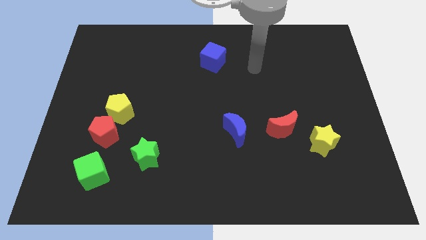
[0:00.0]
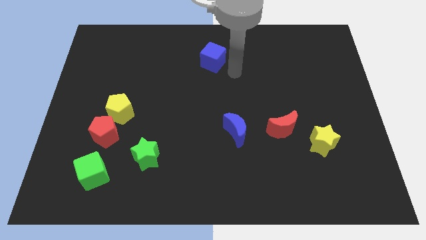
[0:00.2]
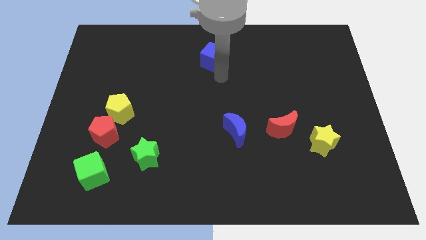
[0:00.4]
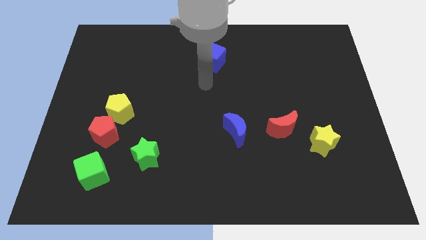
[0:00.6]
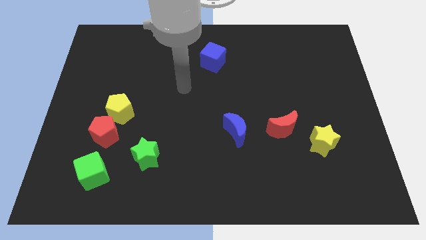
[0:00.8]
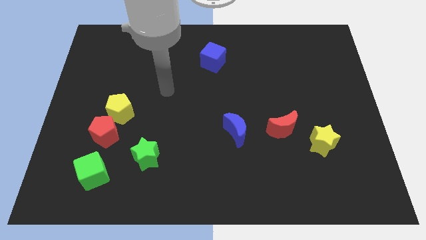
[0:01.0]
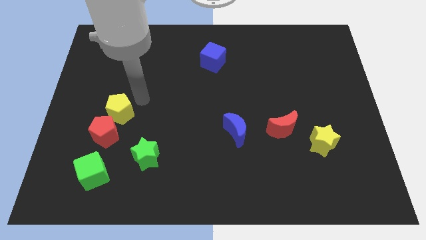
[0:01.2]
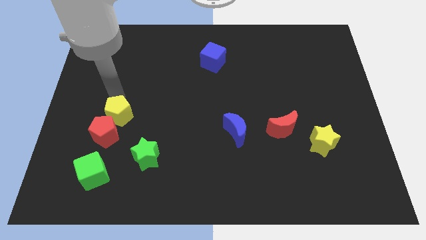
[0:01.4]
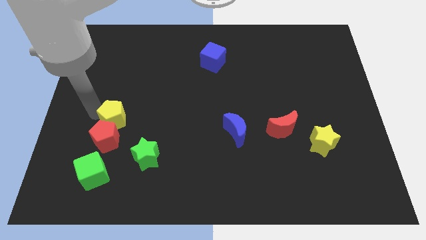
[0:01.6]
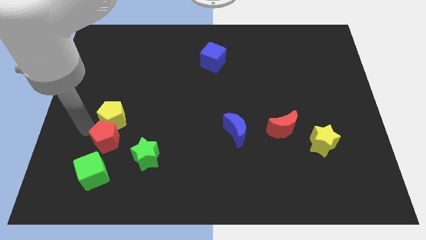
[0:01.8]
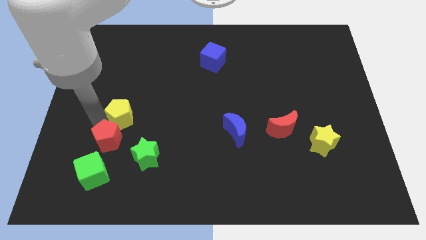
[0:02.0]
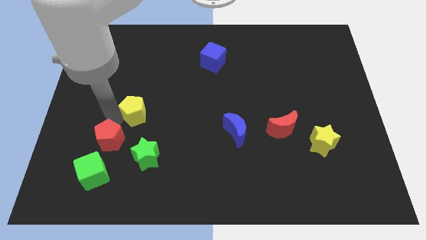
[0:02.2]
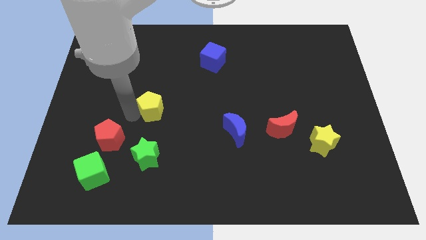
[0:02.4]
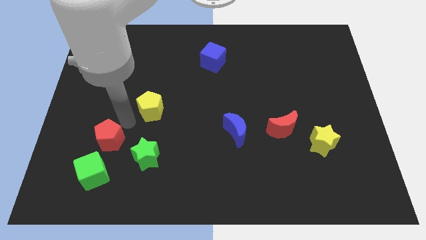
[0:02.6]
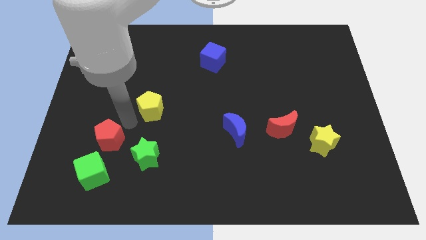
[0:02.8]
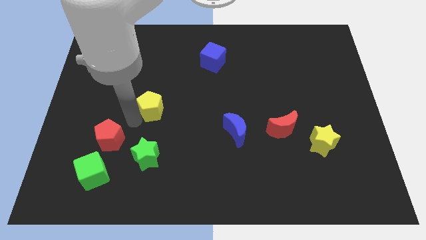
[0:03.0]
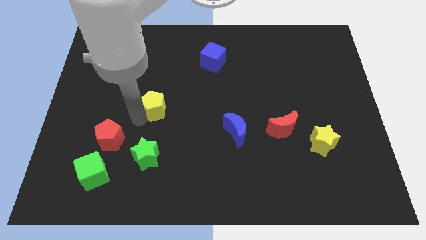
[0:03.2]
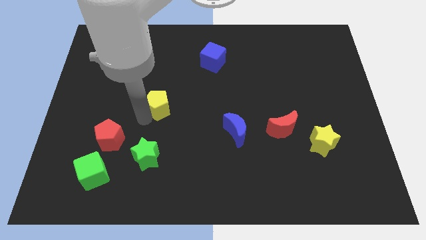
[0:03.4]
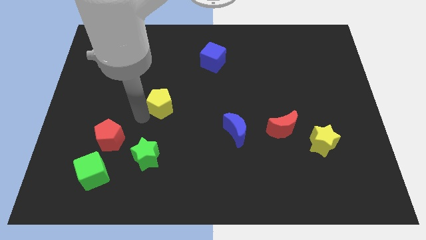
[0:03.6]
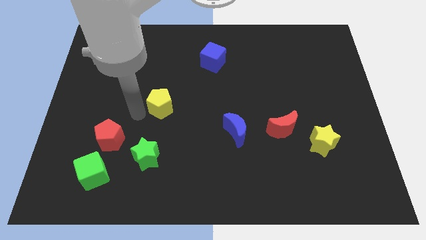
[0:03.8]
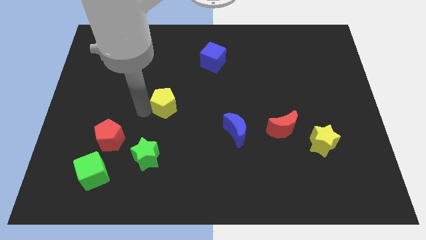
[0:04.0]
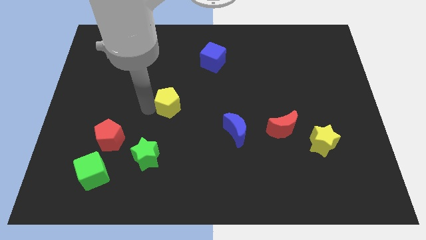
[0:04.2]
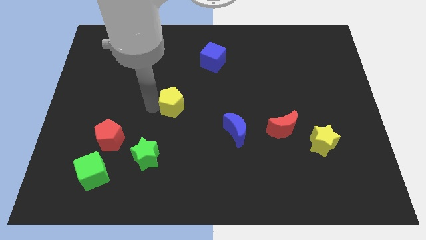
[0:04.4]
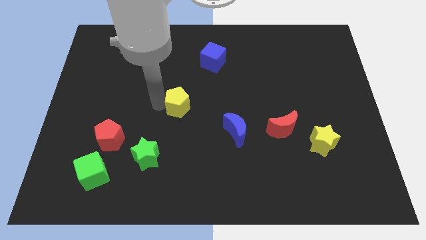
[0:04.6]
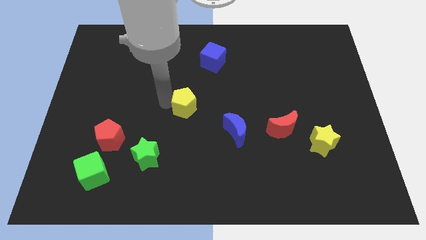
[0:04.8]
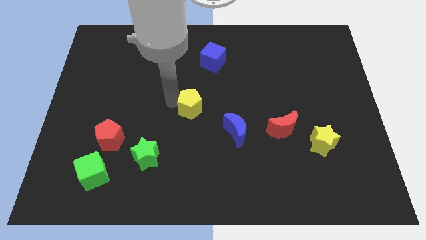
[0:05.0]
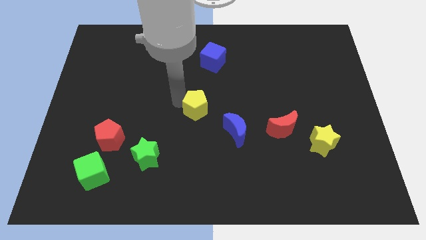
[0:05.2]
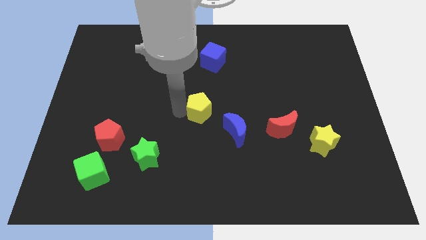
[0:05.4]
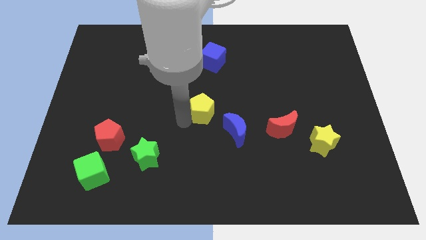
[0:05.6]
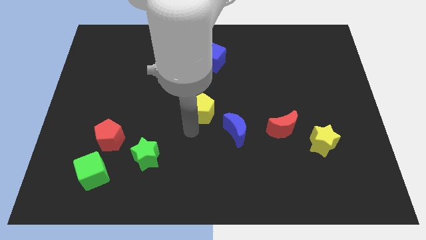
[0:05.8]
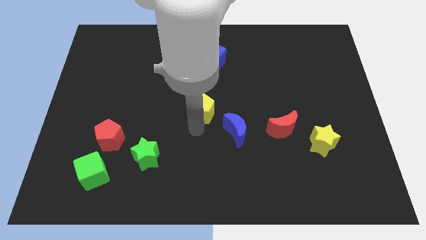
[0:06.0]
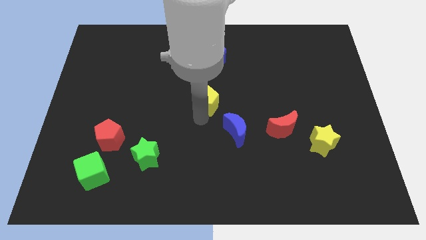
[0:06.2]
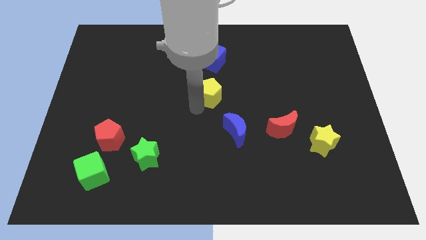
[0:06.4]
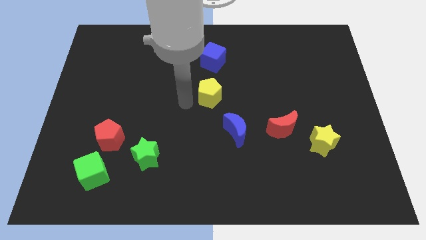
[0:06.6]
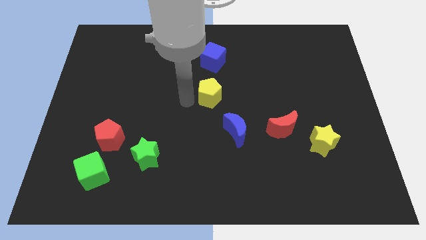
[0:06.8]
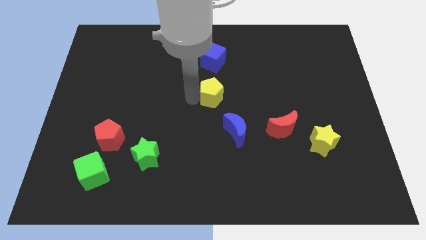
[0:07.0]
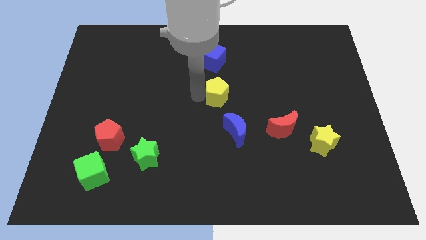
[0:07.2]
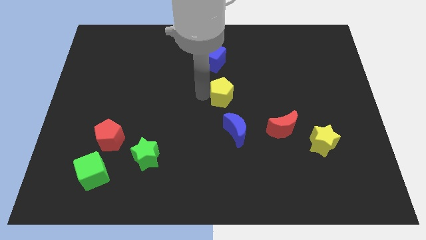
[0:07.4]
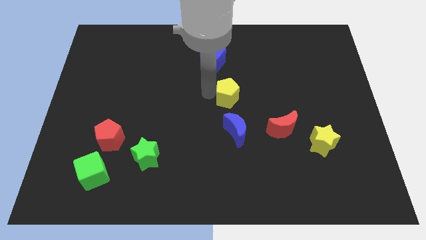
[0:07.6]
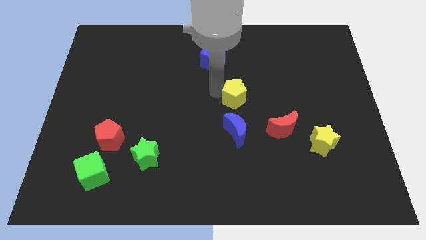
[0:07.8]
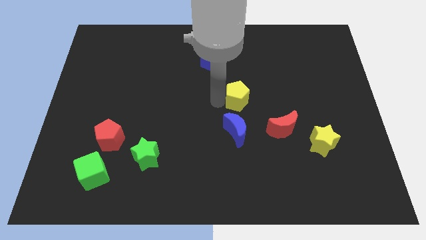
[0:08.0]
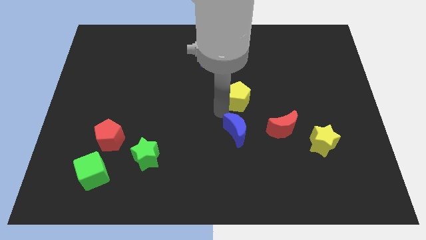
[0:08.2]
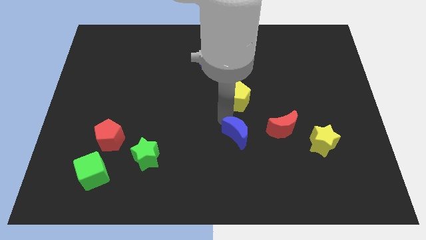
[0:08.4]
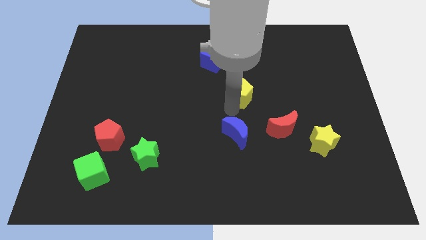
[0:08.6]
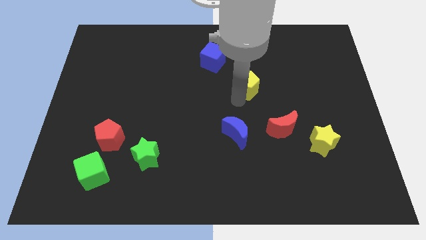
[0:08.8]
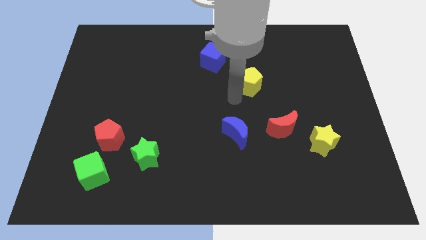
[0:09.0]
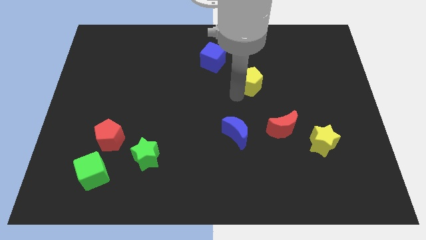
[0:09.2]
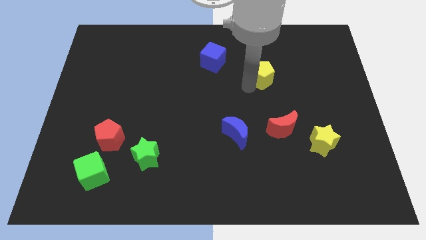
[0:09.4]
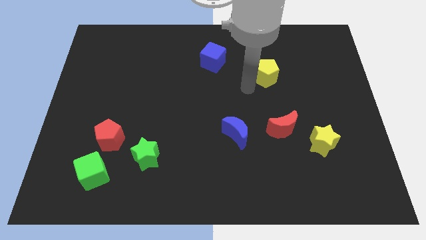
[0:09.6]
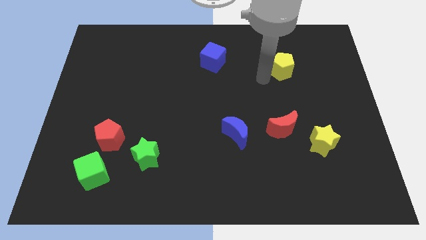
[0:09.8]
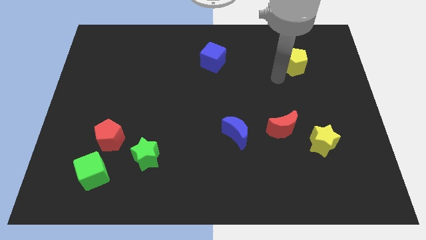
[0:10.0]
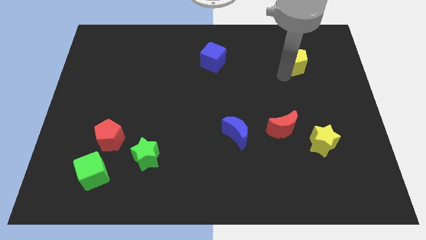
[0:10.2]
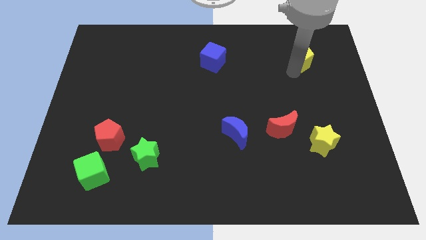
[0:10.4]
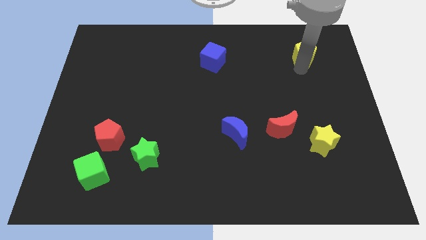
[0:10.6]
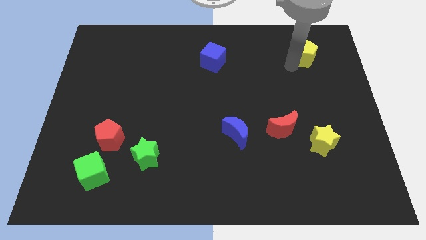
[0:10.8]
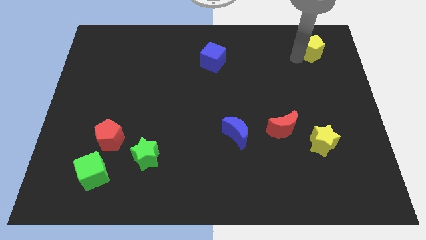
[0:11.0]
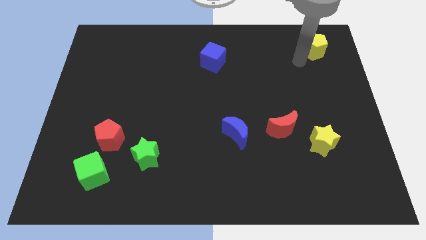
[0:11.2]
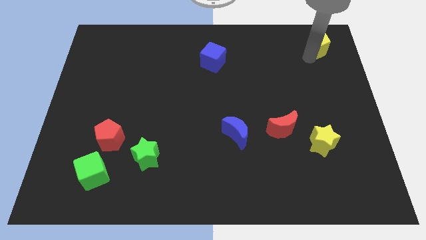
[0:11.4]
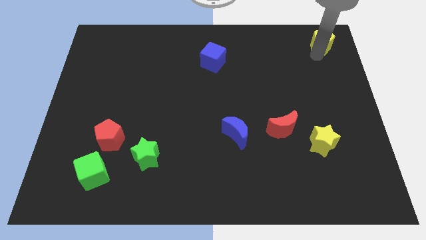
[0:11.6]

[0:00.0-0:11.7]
move the yellow pentagon to the top right of the board

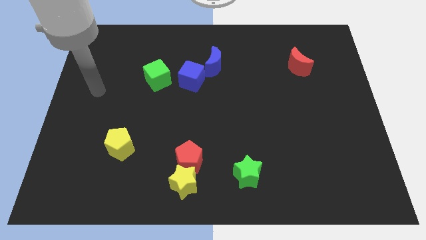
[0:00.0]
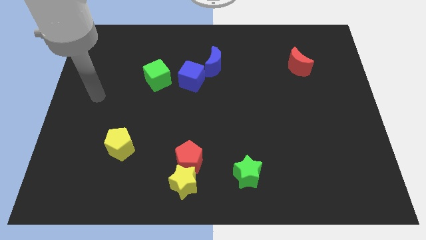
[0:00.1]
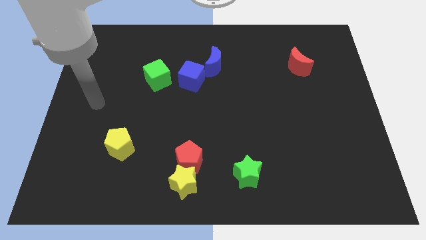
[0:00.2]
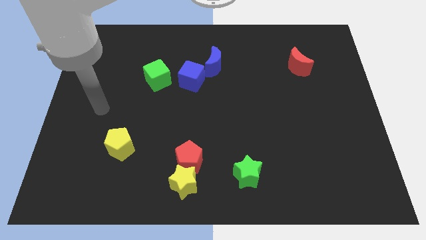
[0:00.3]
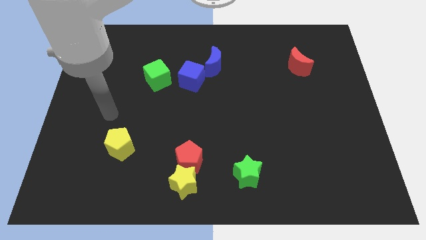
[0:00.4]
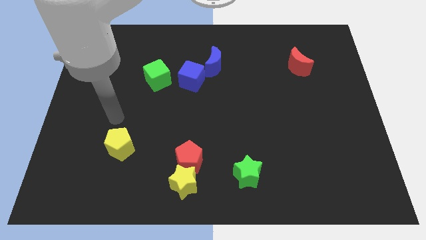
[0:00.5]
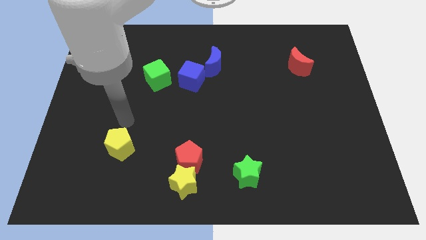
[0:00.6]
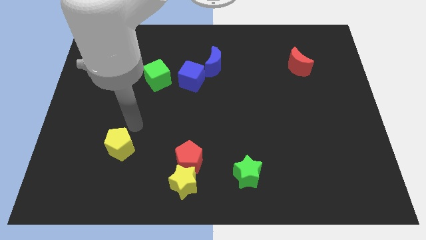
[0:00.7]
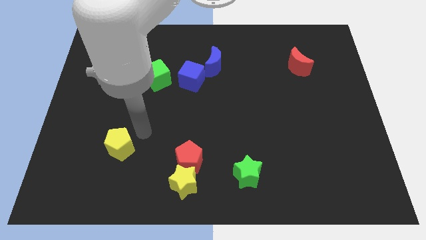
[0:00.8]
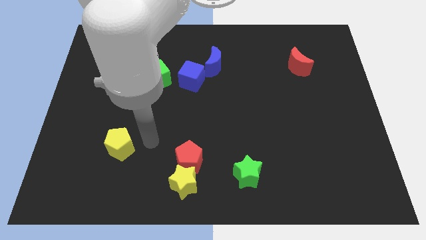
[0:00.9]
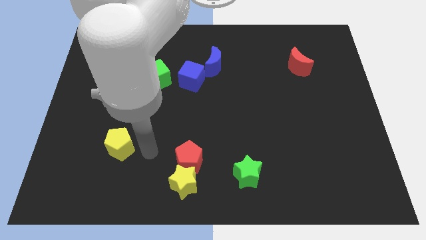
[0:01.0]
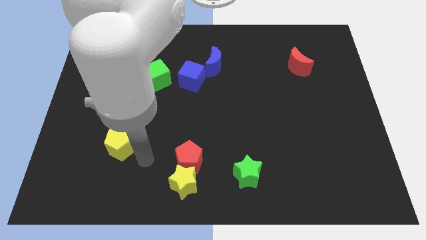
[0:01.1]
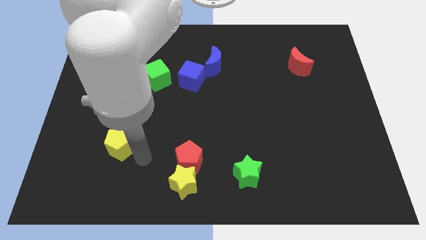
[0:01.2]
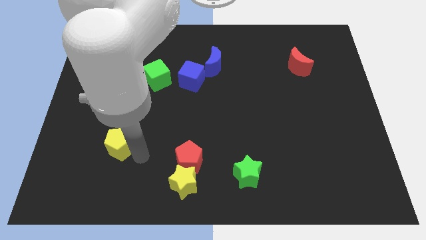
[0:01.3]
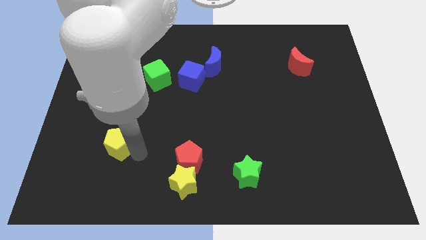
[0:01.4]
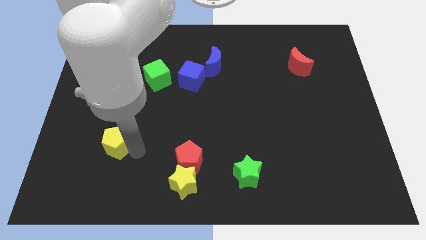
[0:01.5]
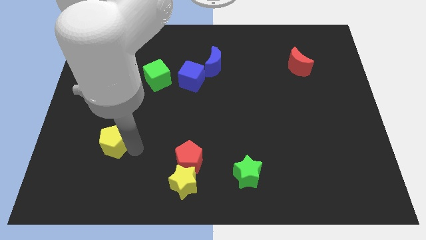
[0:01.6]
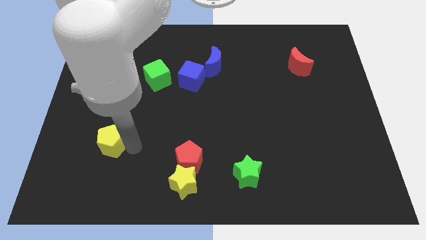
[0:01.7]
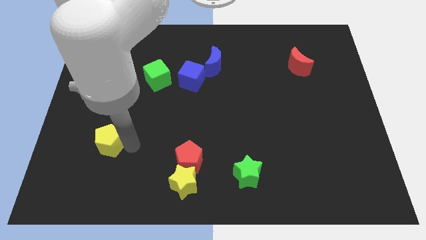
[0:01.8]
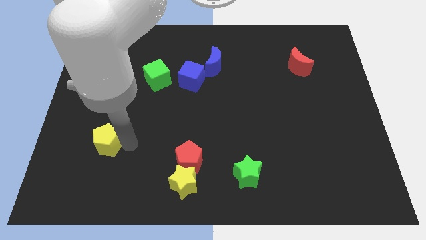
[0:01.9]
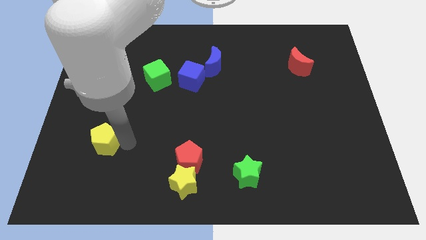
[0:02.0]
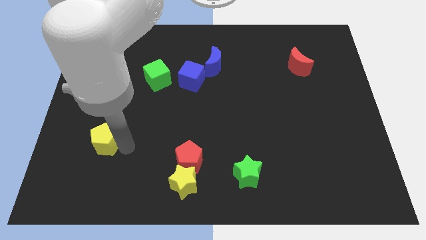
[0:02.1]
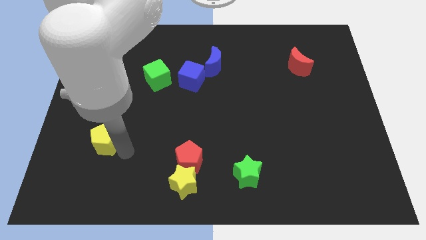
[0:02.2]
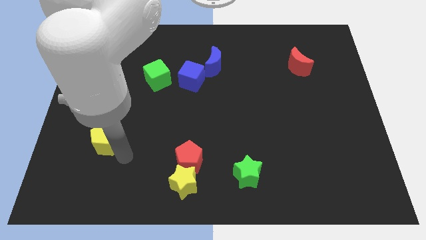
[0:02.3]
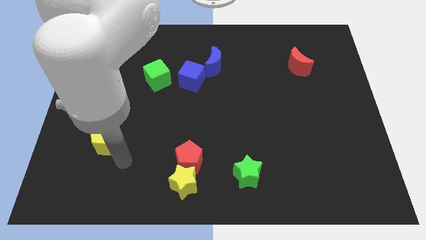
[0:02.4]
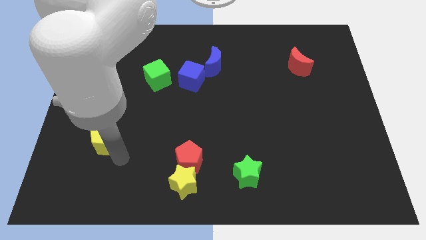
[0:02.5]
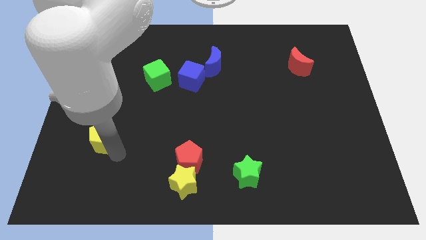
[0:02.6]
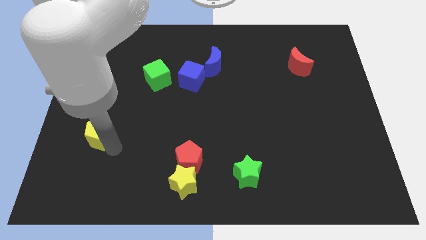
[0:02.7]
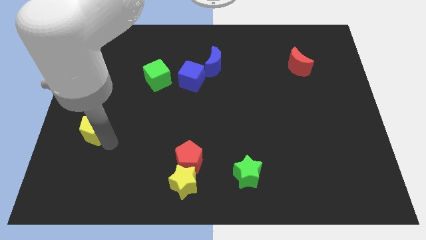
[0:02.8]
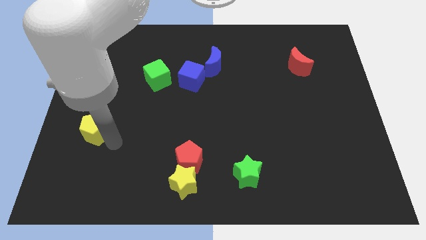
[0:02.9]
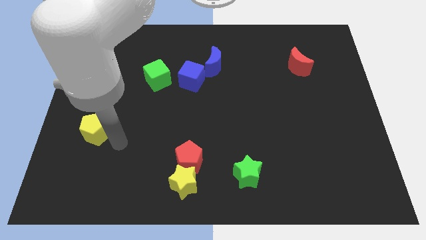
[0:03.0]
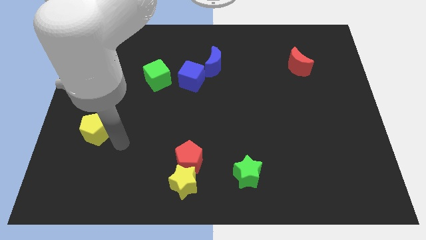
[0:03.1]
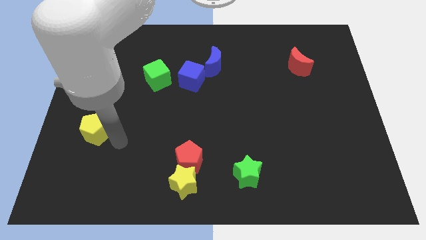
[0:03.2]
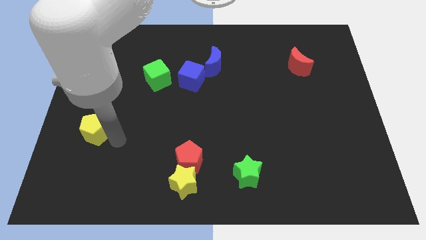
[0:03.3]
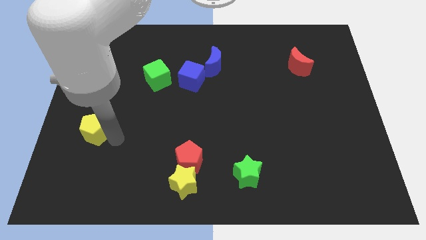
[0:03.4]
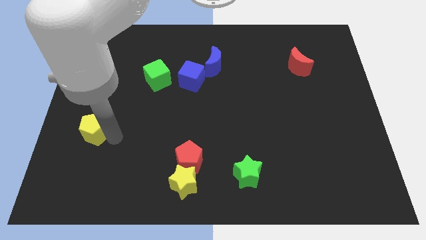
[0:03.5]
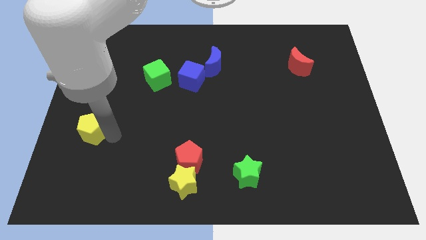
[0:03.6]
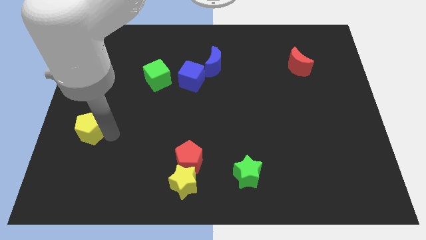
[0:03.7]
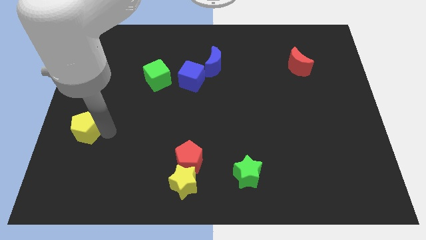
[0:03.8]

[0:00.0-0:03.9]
put the yellow pentagon to the left side of the board
